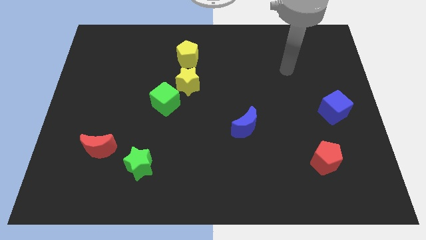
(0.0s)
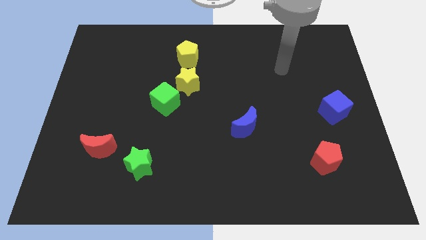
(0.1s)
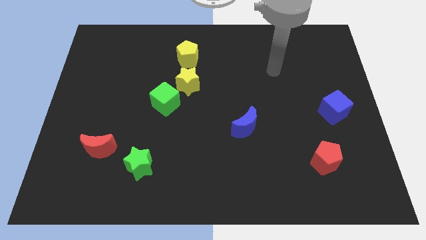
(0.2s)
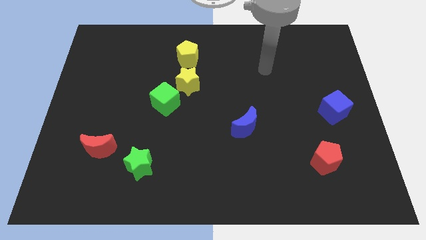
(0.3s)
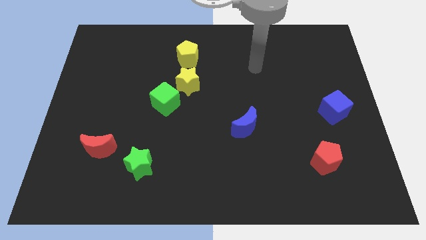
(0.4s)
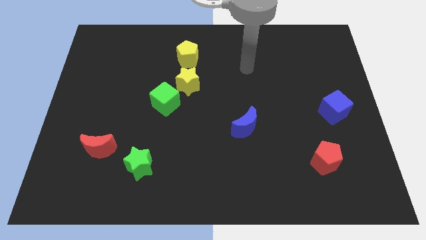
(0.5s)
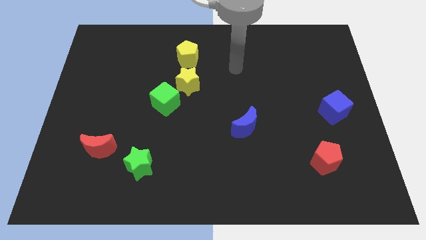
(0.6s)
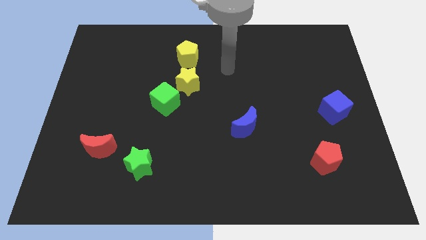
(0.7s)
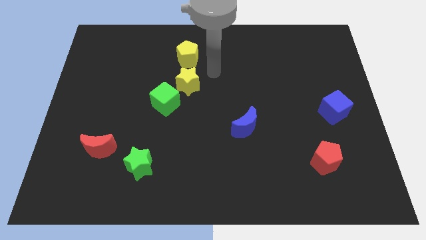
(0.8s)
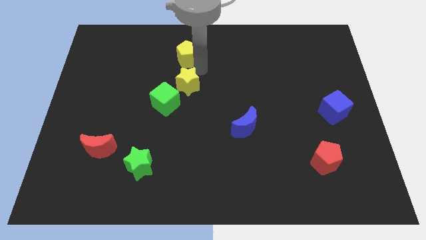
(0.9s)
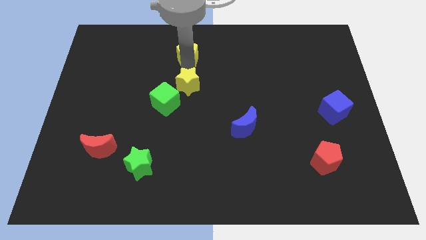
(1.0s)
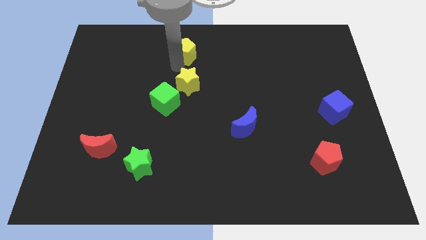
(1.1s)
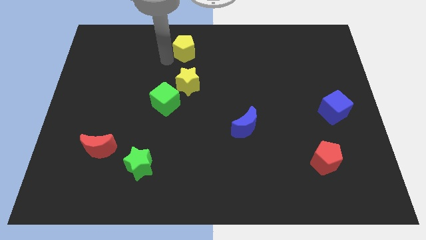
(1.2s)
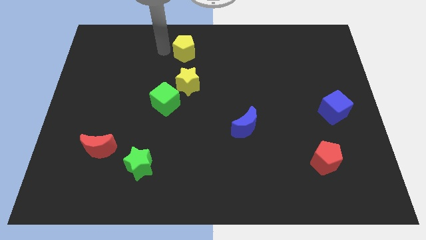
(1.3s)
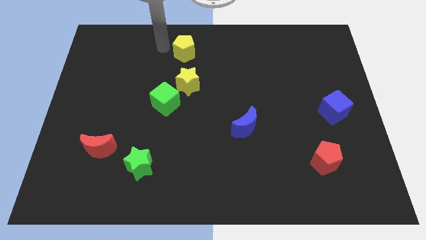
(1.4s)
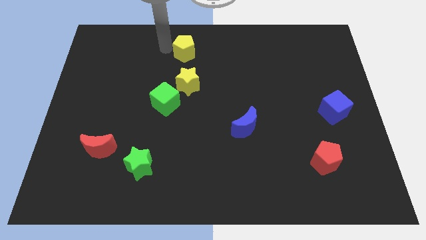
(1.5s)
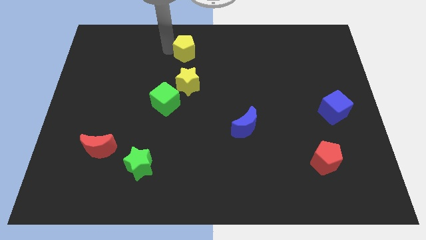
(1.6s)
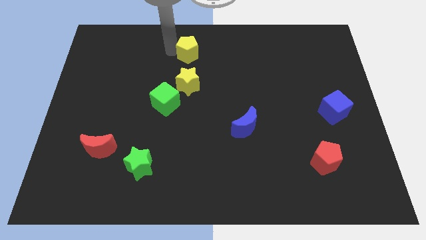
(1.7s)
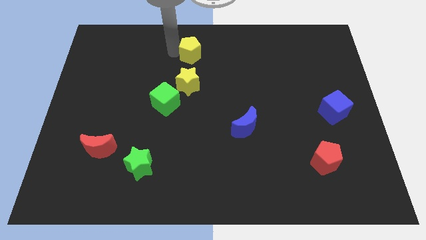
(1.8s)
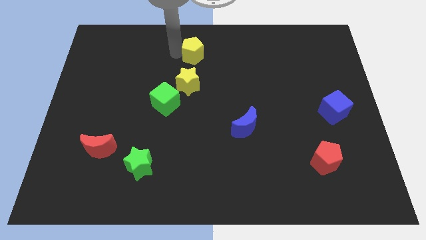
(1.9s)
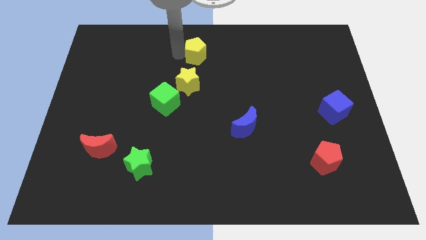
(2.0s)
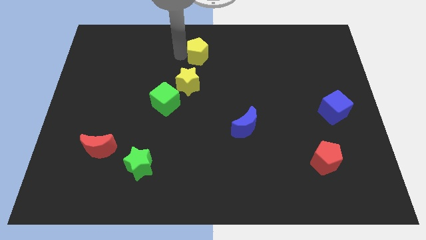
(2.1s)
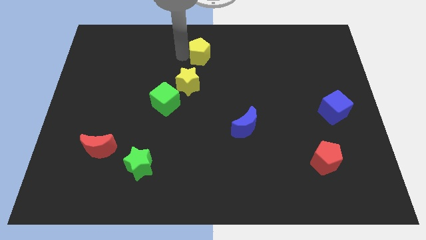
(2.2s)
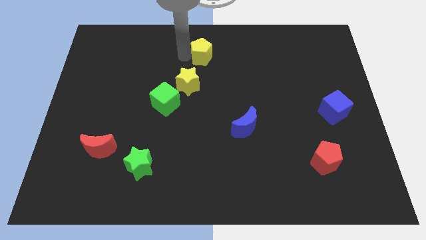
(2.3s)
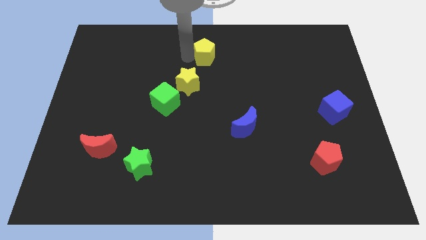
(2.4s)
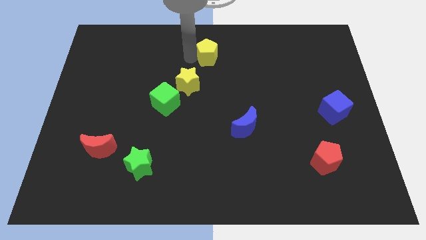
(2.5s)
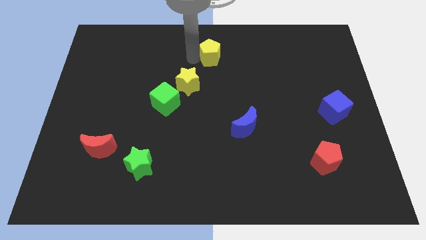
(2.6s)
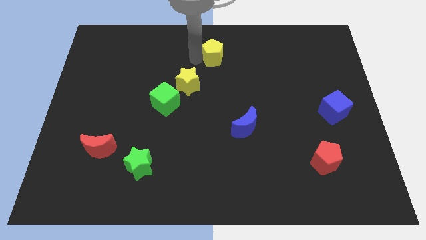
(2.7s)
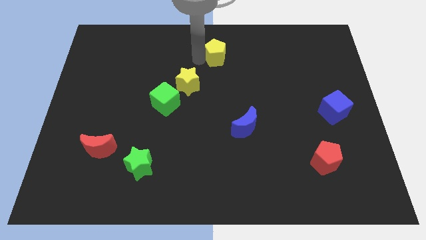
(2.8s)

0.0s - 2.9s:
slide the yellow pentagon slightly right

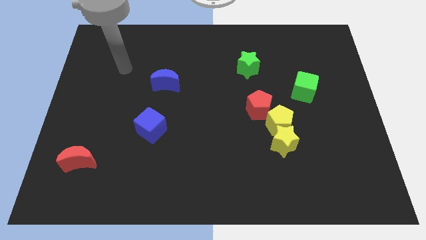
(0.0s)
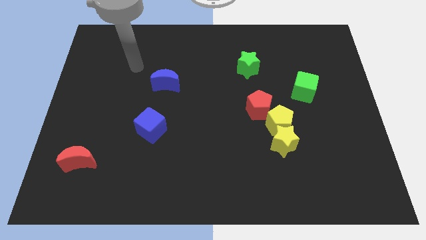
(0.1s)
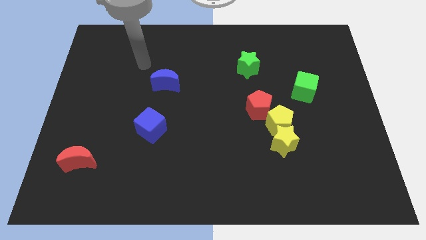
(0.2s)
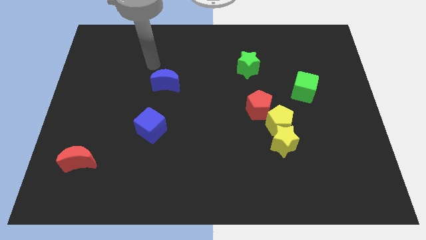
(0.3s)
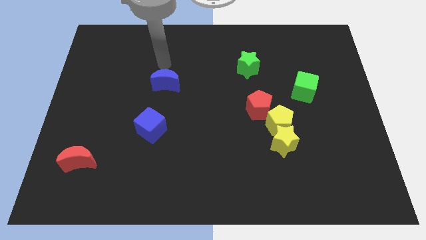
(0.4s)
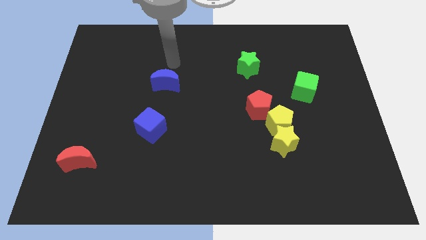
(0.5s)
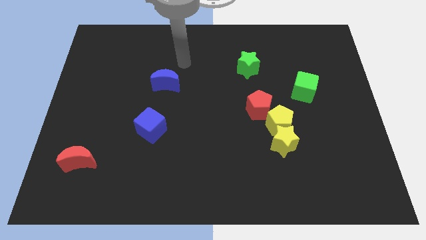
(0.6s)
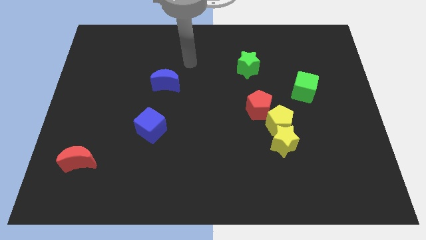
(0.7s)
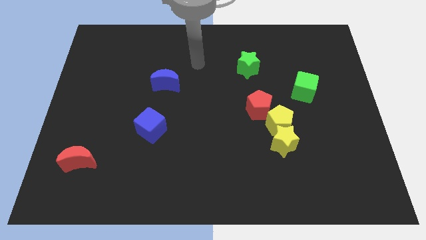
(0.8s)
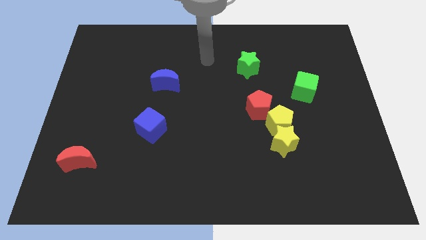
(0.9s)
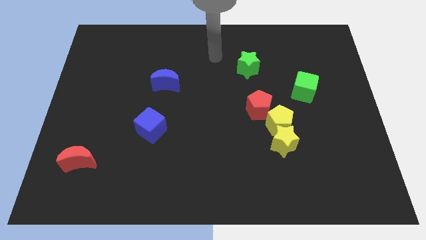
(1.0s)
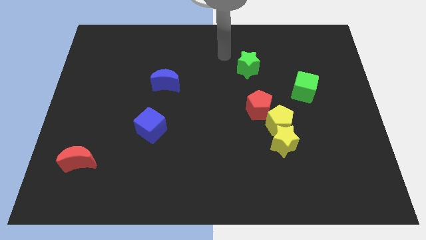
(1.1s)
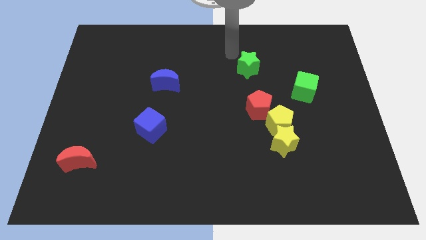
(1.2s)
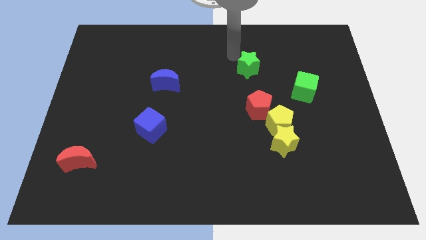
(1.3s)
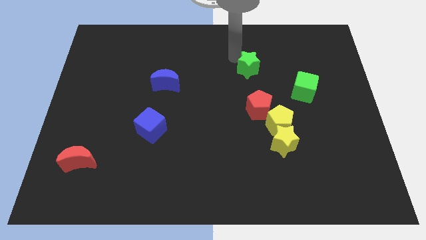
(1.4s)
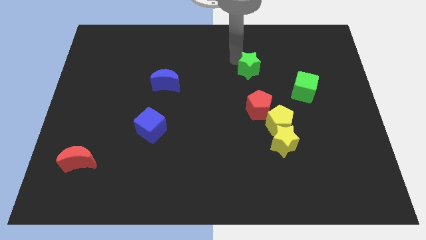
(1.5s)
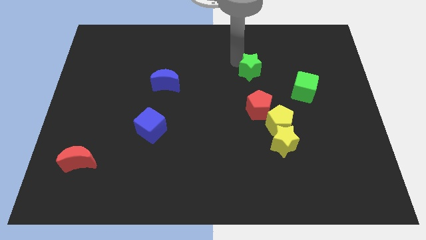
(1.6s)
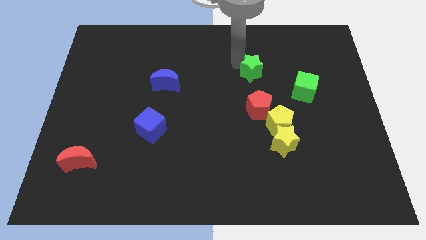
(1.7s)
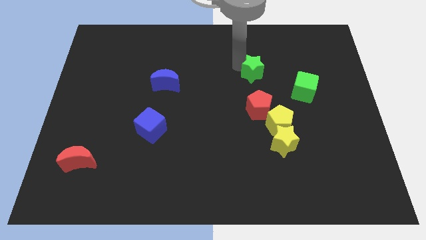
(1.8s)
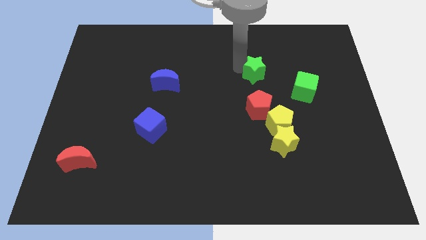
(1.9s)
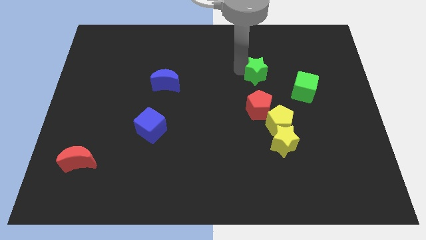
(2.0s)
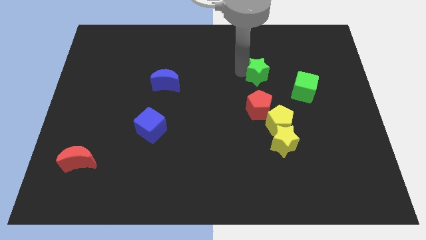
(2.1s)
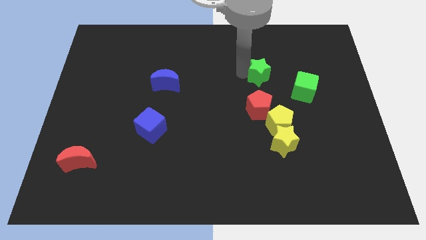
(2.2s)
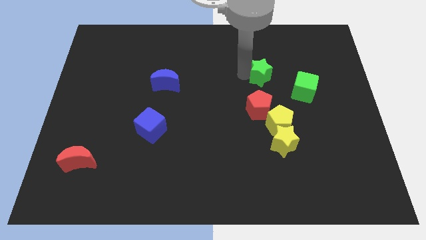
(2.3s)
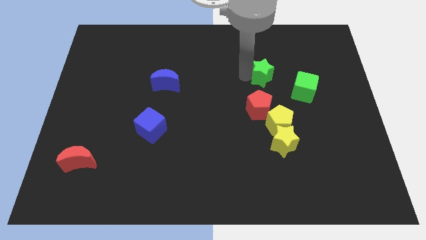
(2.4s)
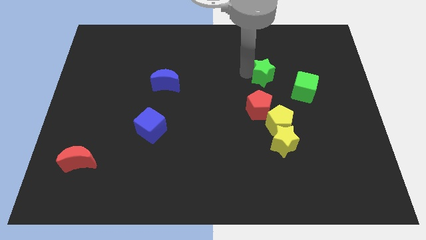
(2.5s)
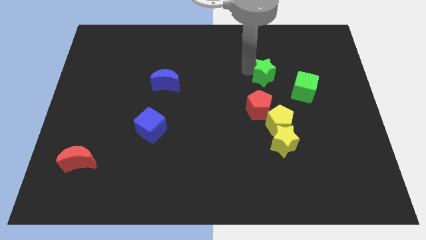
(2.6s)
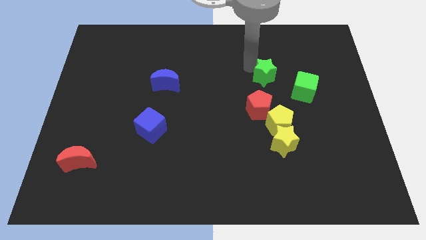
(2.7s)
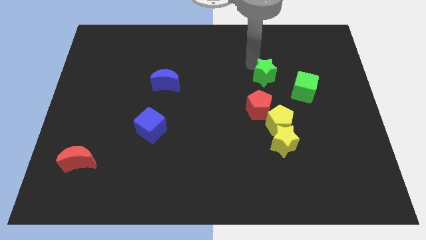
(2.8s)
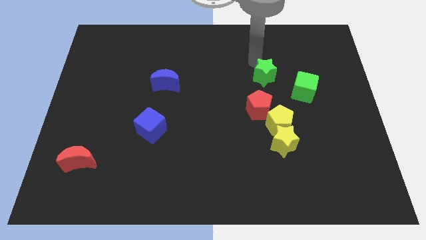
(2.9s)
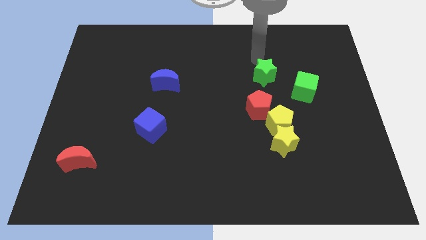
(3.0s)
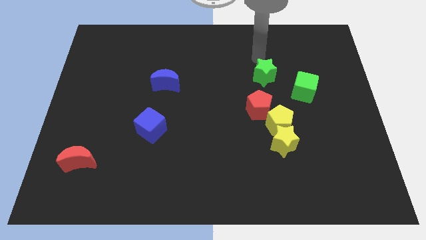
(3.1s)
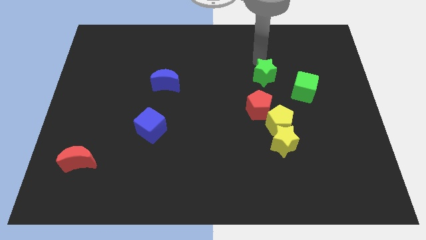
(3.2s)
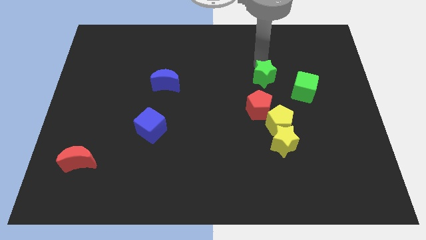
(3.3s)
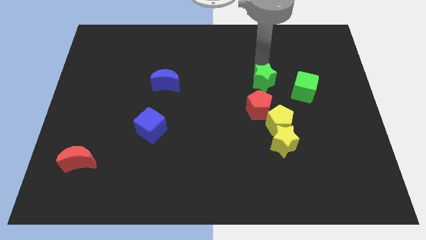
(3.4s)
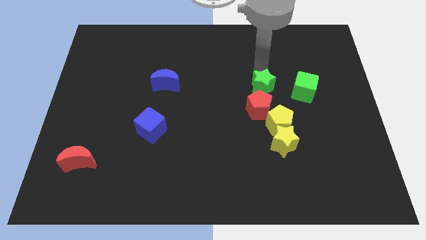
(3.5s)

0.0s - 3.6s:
slide the green star diagonally down and to the right a bit

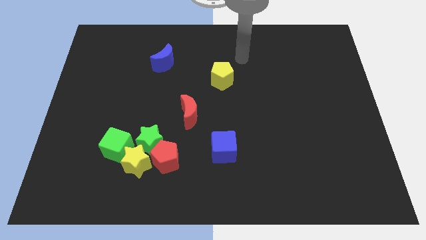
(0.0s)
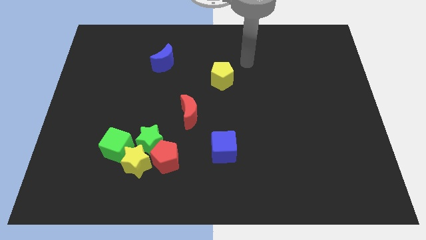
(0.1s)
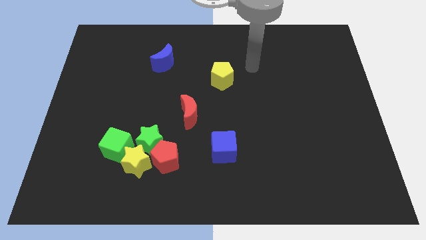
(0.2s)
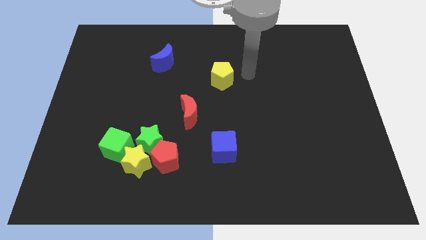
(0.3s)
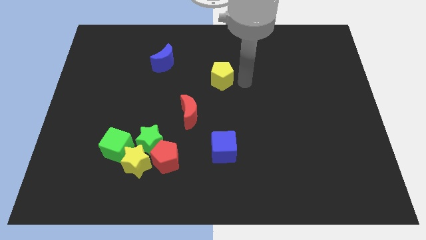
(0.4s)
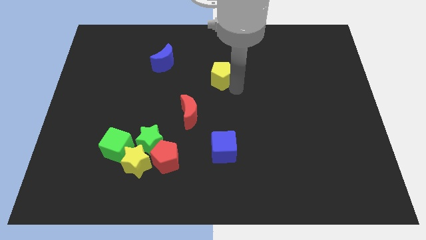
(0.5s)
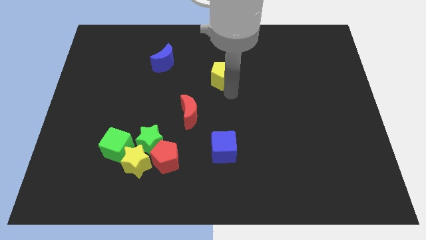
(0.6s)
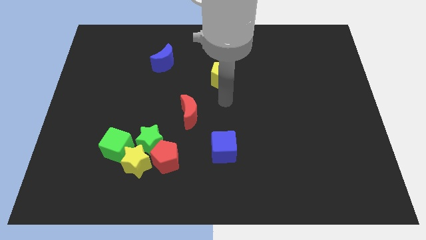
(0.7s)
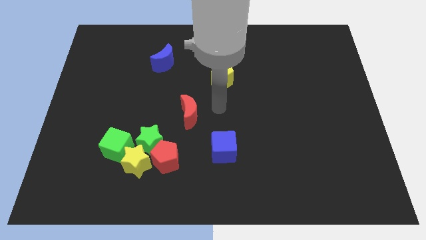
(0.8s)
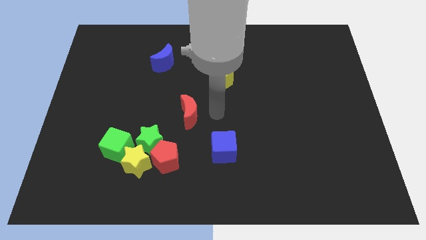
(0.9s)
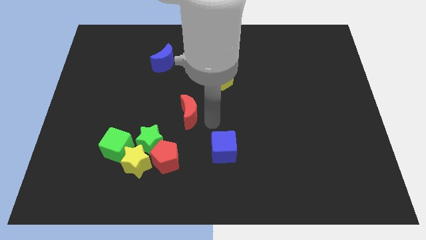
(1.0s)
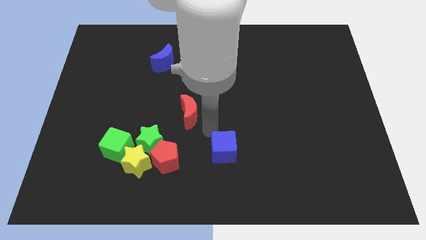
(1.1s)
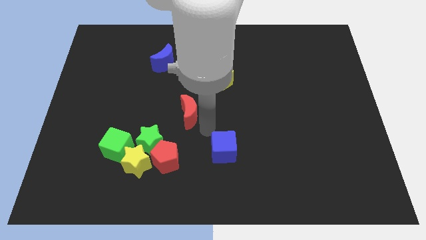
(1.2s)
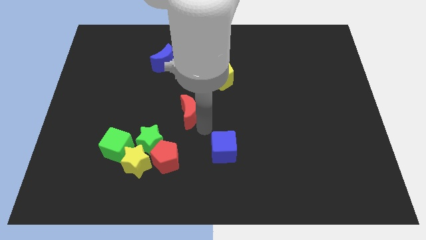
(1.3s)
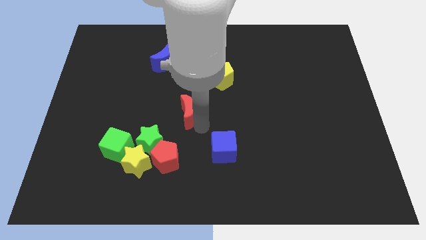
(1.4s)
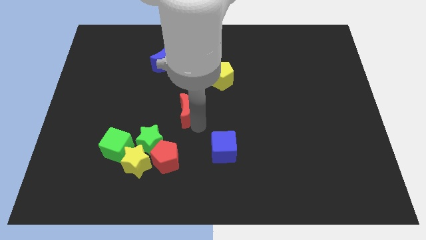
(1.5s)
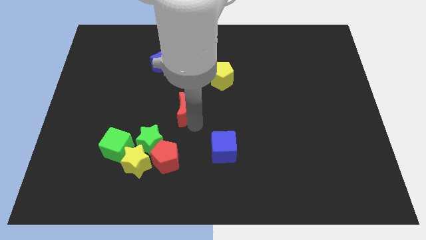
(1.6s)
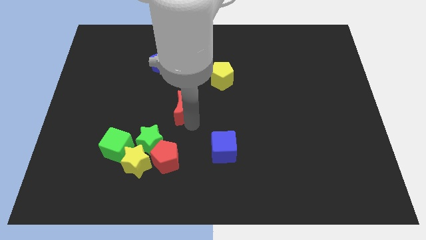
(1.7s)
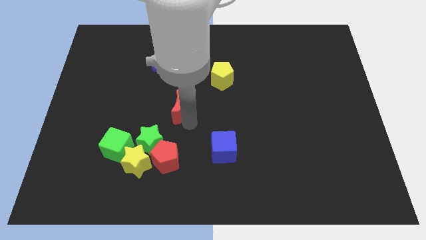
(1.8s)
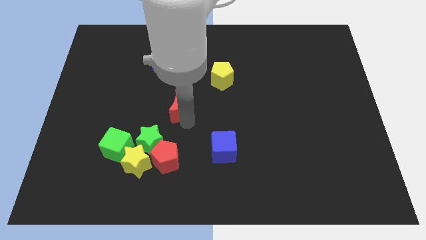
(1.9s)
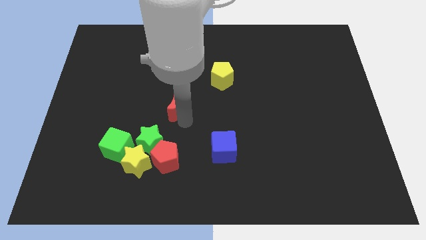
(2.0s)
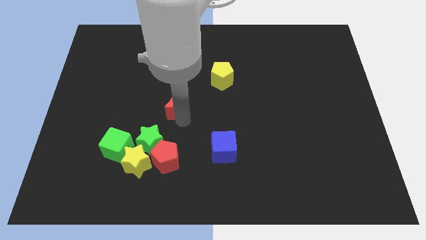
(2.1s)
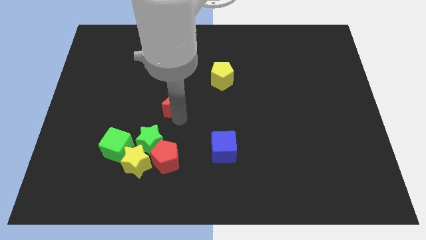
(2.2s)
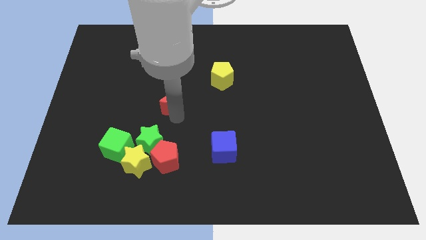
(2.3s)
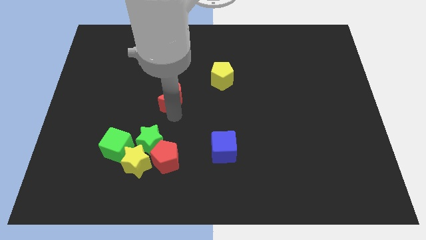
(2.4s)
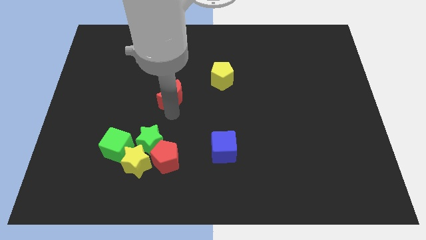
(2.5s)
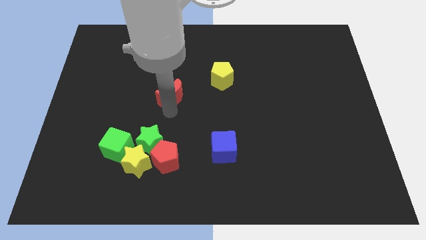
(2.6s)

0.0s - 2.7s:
move the red moon up and then left a bit
